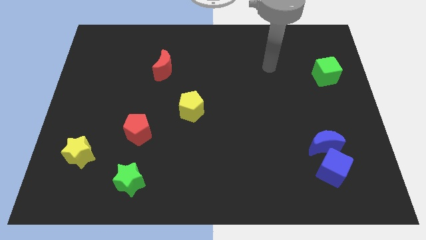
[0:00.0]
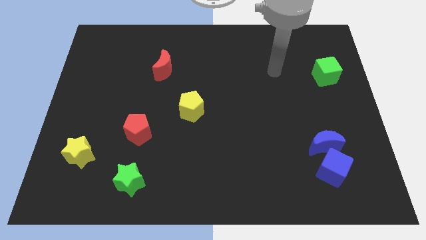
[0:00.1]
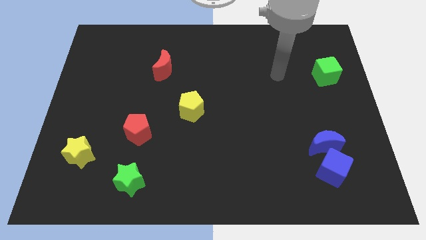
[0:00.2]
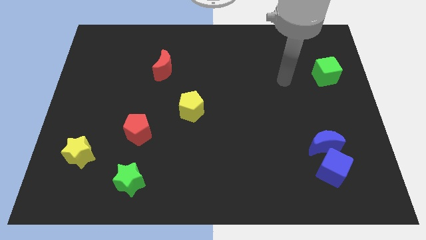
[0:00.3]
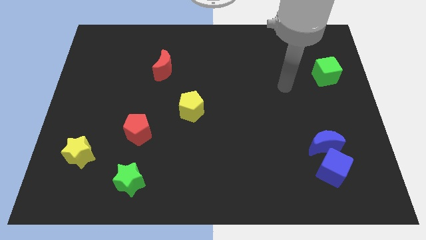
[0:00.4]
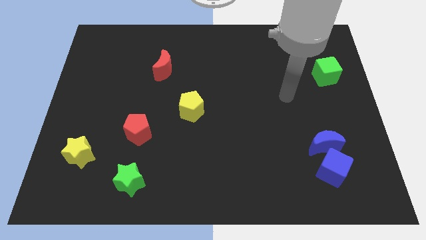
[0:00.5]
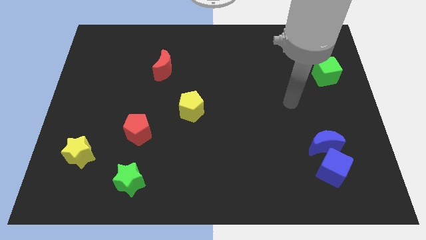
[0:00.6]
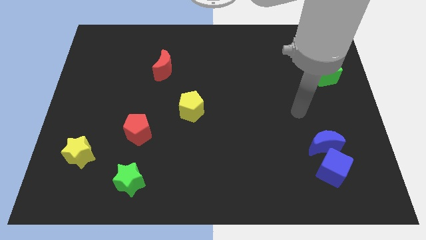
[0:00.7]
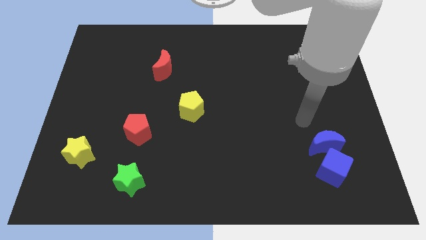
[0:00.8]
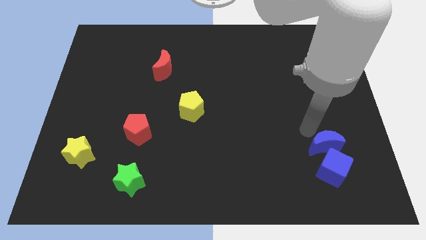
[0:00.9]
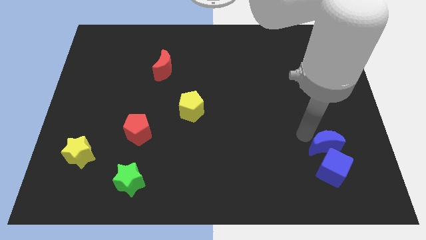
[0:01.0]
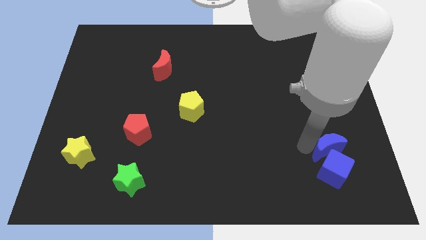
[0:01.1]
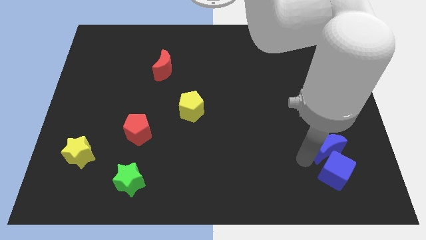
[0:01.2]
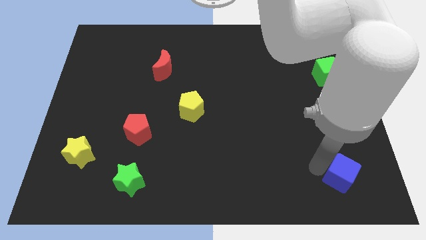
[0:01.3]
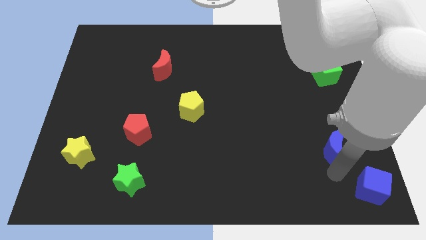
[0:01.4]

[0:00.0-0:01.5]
pull the blue moon apart from the blue cube

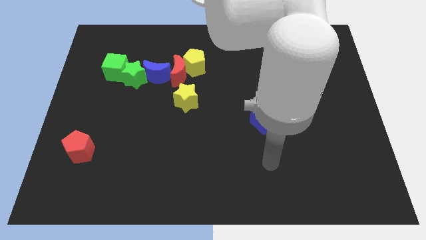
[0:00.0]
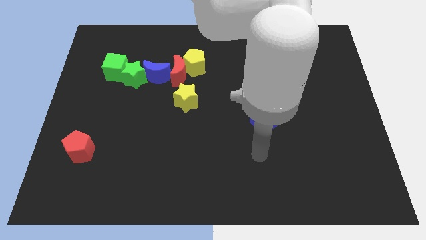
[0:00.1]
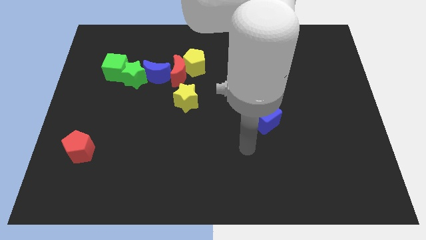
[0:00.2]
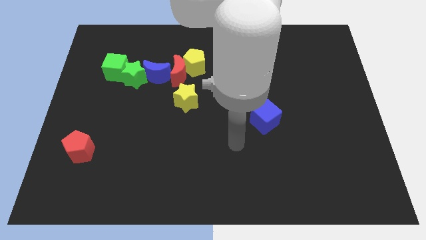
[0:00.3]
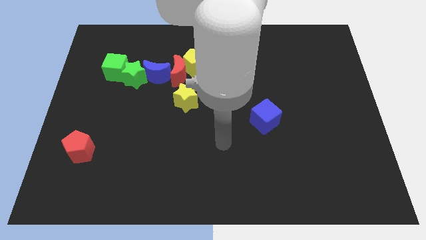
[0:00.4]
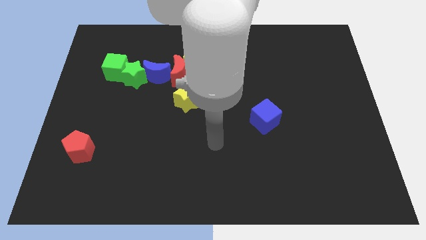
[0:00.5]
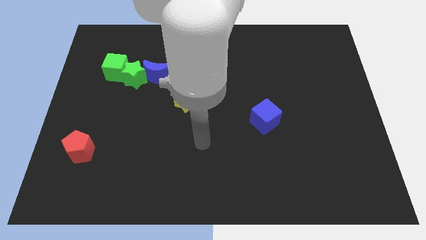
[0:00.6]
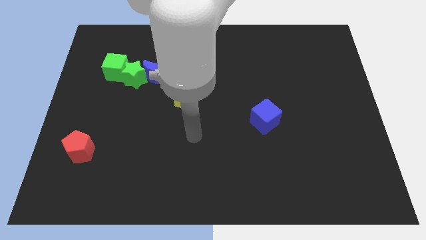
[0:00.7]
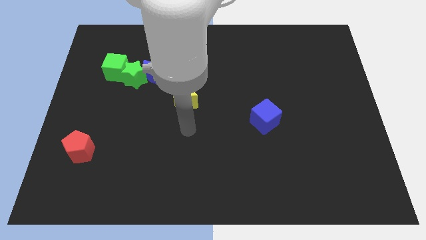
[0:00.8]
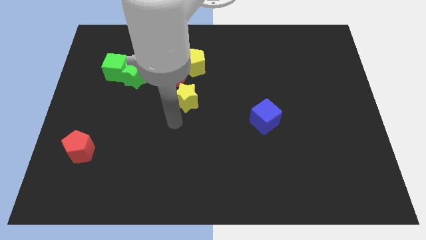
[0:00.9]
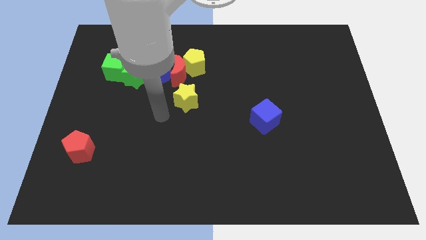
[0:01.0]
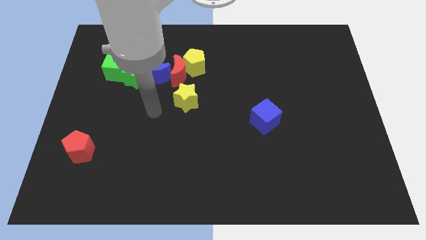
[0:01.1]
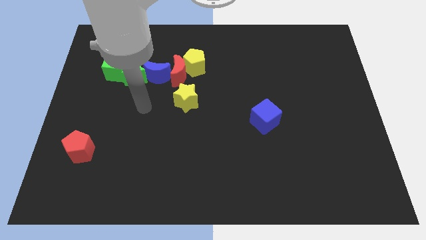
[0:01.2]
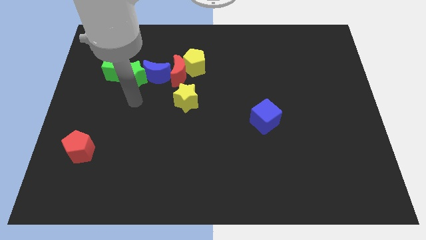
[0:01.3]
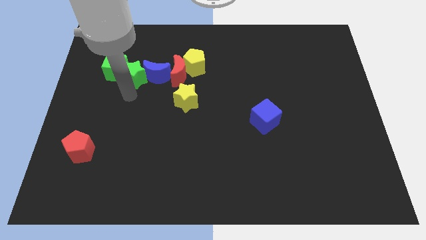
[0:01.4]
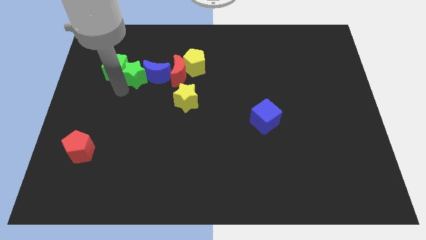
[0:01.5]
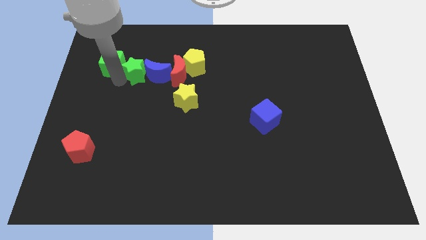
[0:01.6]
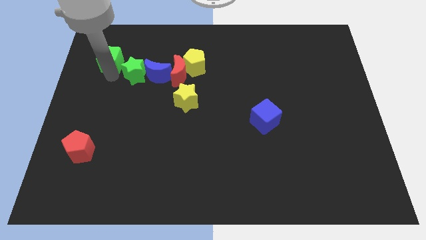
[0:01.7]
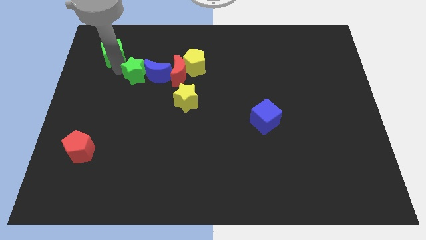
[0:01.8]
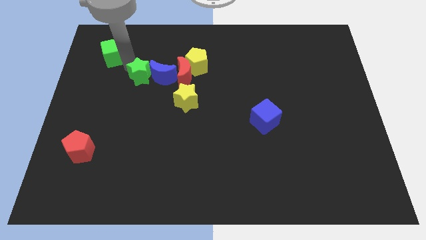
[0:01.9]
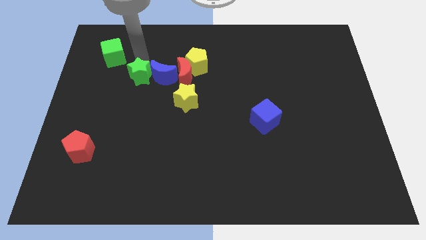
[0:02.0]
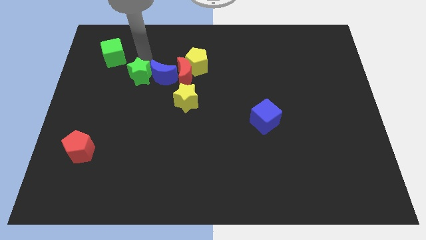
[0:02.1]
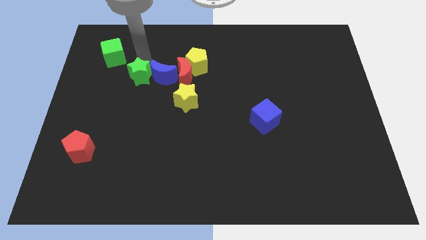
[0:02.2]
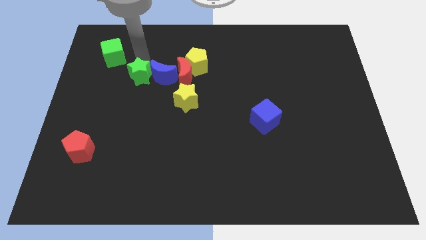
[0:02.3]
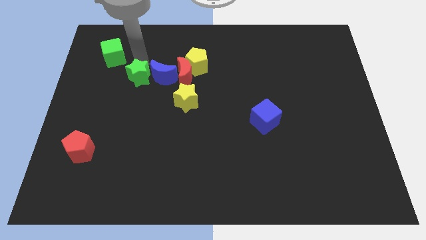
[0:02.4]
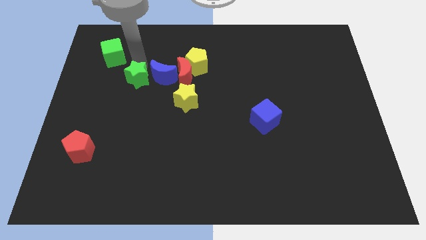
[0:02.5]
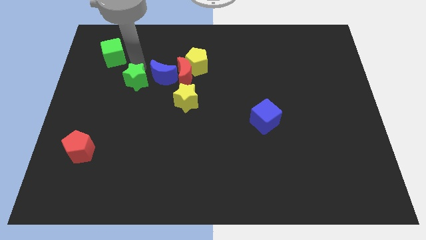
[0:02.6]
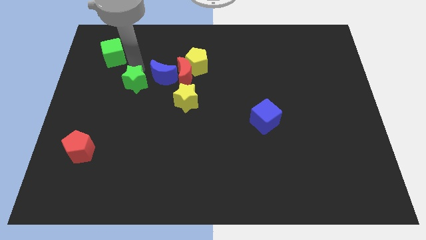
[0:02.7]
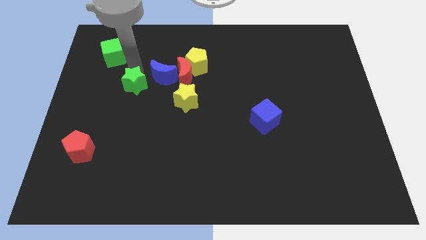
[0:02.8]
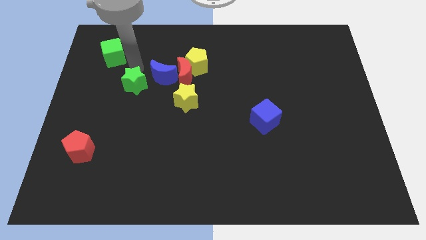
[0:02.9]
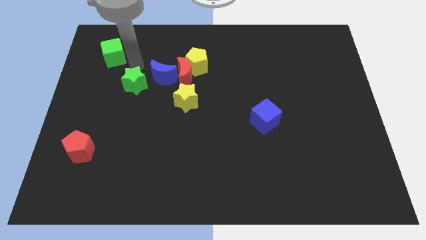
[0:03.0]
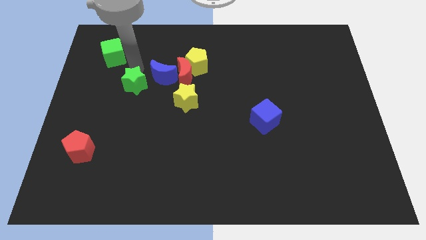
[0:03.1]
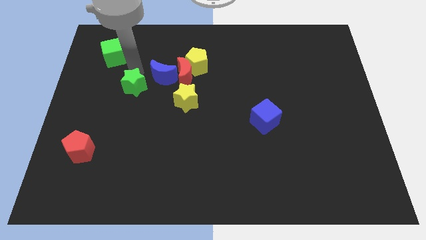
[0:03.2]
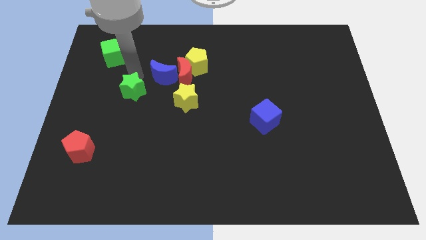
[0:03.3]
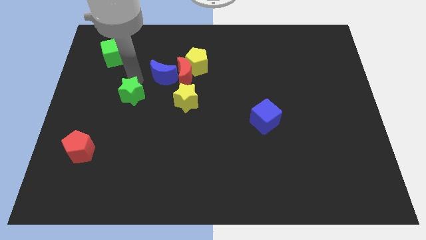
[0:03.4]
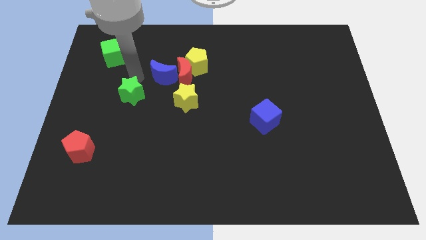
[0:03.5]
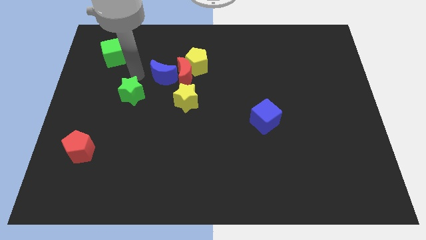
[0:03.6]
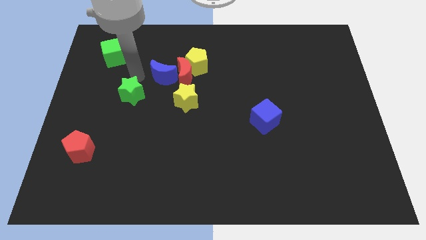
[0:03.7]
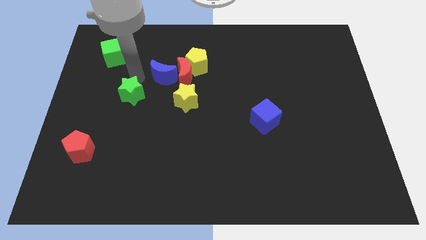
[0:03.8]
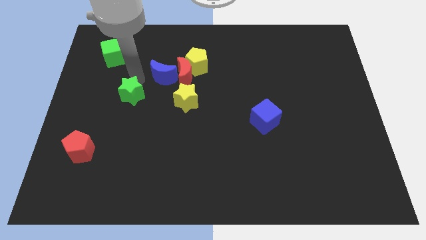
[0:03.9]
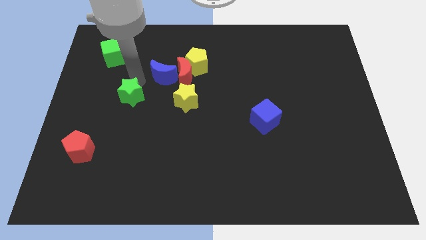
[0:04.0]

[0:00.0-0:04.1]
pull the green star apart from the blue moon and green cube

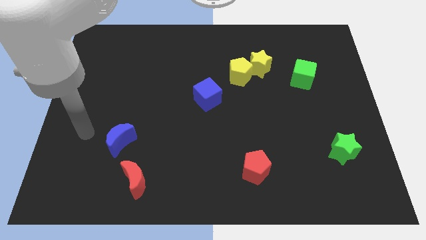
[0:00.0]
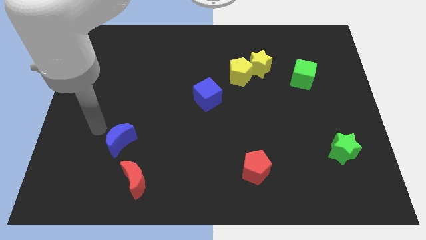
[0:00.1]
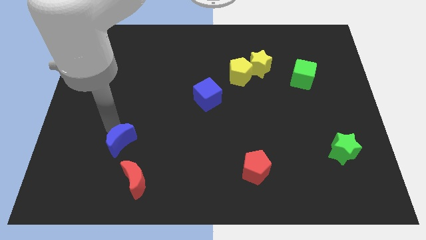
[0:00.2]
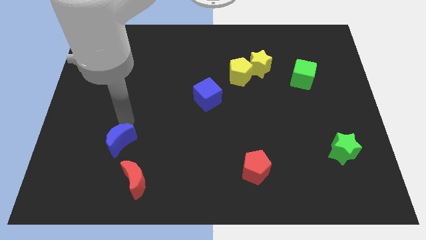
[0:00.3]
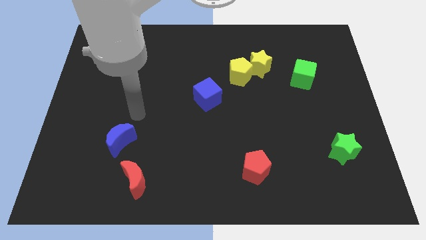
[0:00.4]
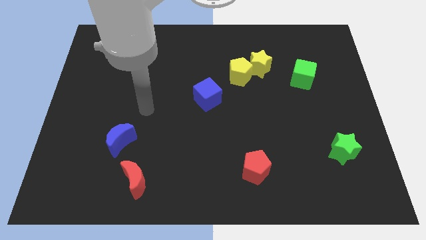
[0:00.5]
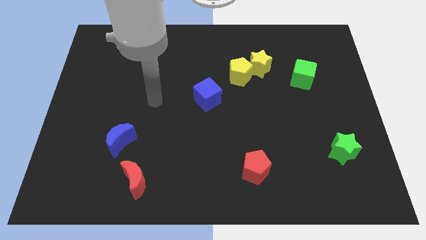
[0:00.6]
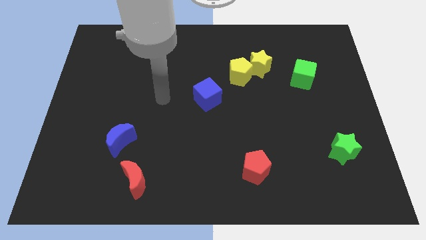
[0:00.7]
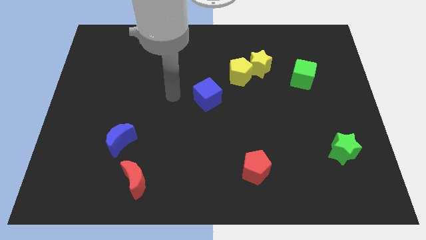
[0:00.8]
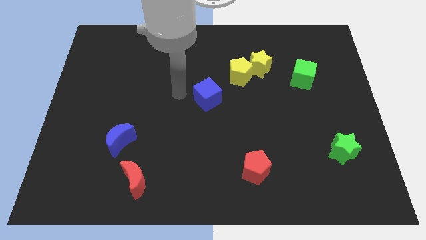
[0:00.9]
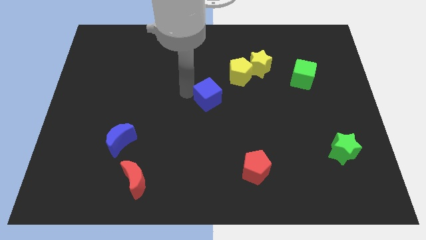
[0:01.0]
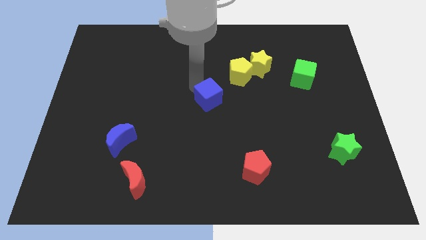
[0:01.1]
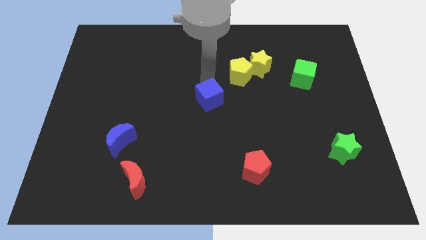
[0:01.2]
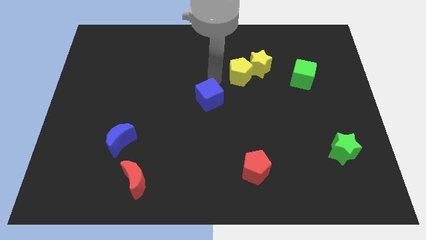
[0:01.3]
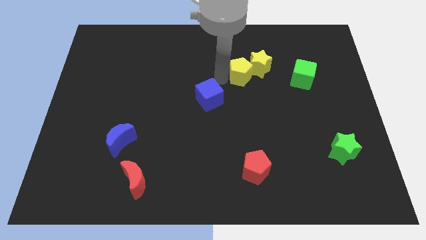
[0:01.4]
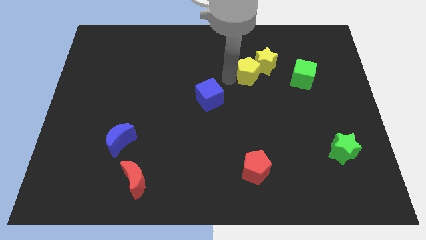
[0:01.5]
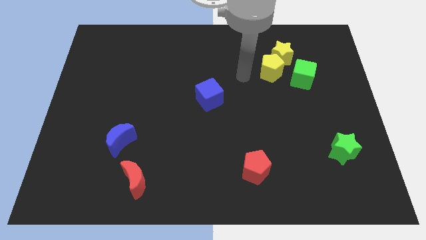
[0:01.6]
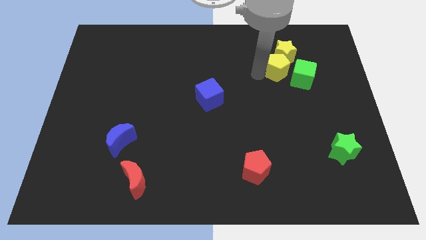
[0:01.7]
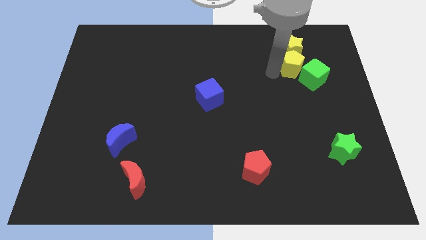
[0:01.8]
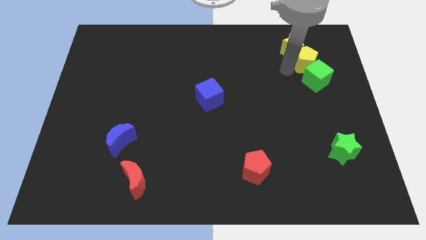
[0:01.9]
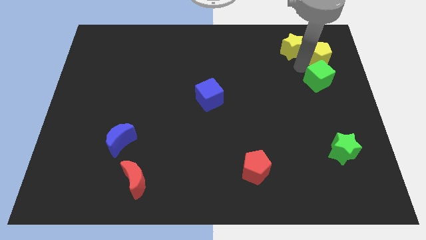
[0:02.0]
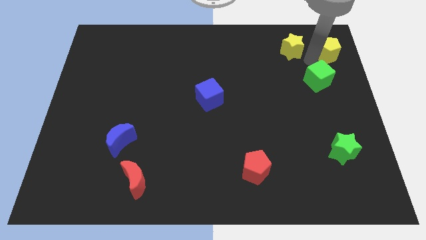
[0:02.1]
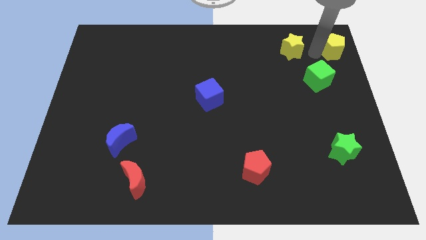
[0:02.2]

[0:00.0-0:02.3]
separate the yellow star from the yellow pentagon

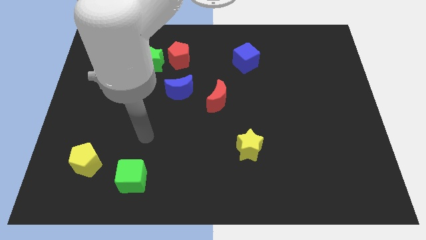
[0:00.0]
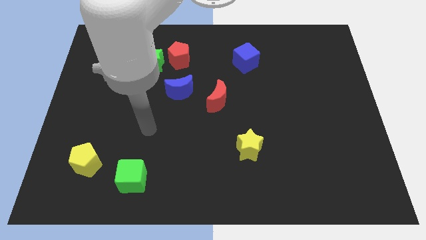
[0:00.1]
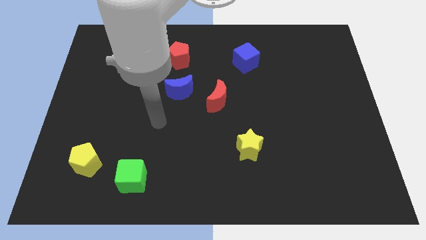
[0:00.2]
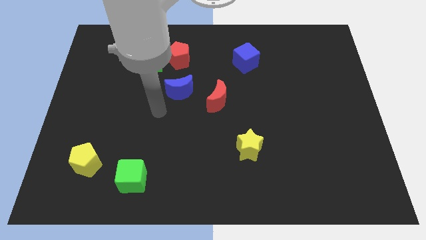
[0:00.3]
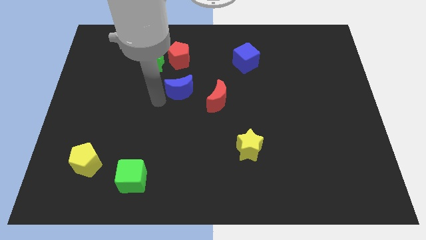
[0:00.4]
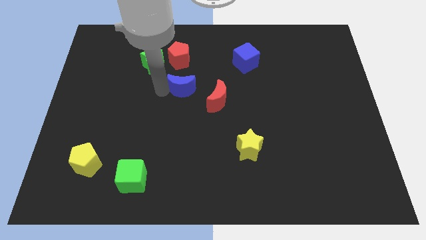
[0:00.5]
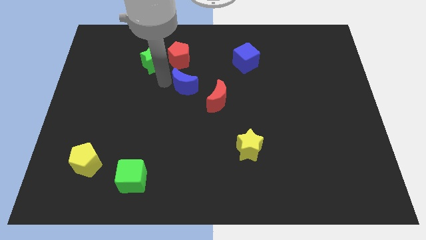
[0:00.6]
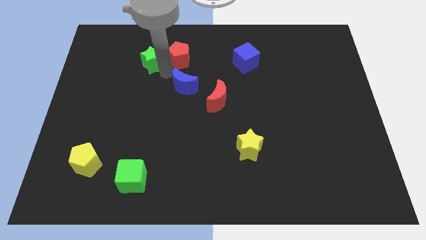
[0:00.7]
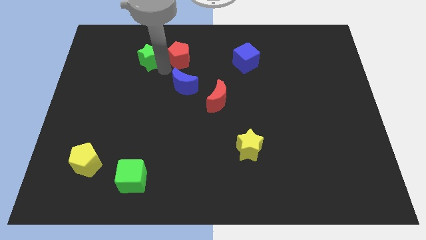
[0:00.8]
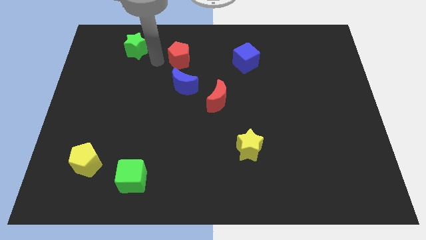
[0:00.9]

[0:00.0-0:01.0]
separate the red pentagon from the green star

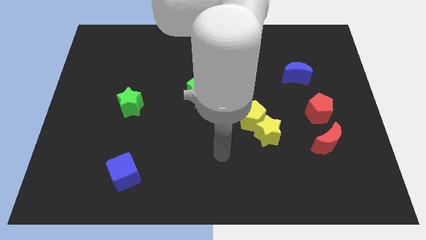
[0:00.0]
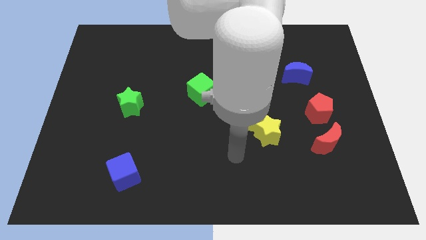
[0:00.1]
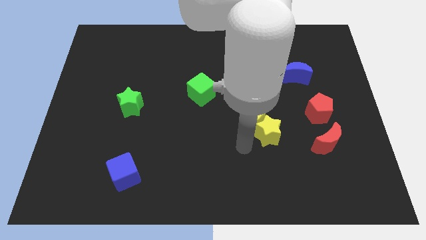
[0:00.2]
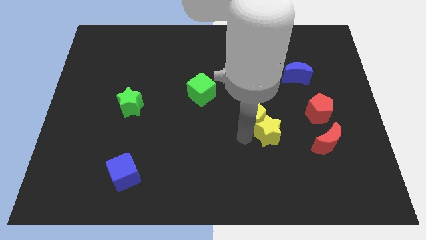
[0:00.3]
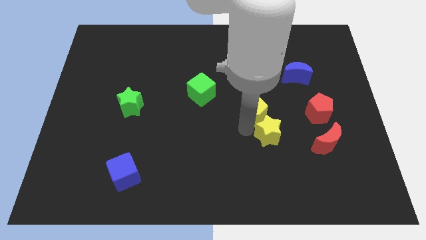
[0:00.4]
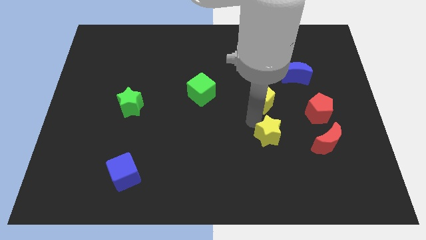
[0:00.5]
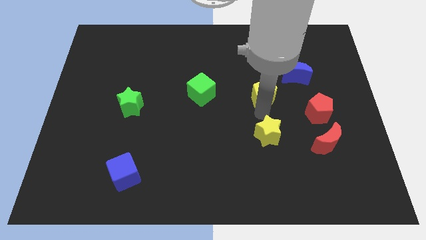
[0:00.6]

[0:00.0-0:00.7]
move the yellow star away from the yellow pentagon
